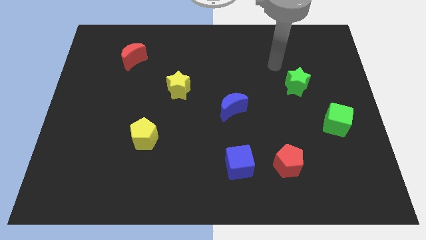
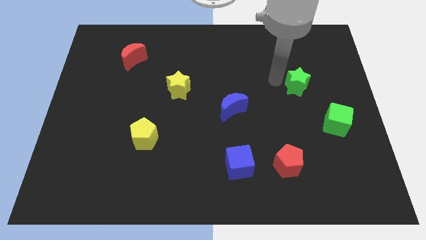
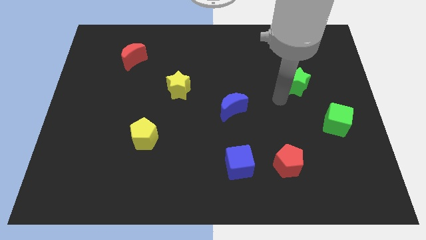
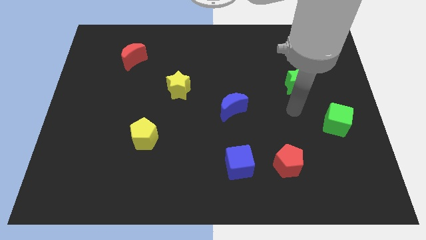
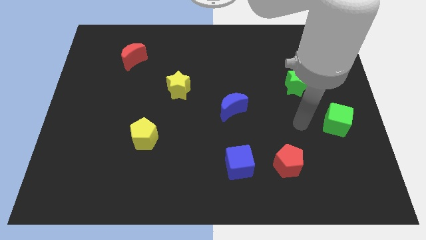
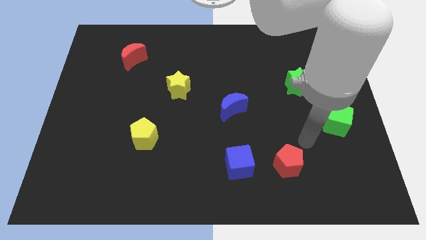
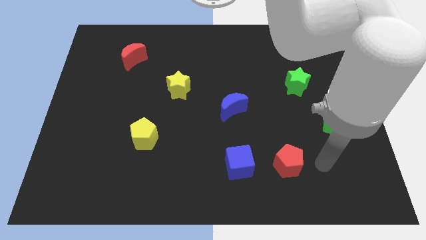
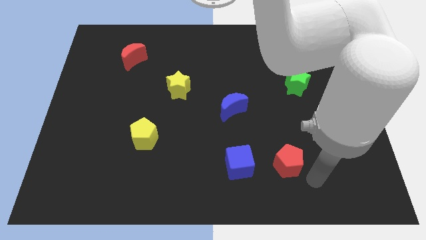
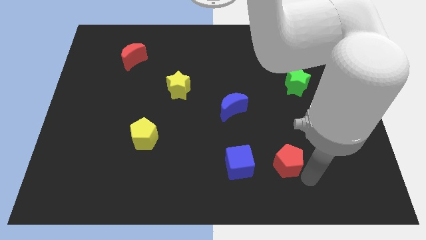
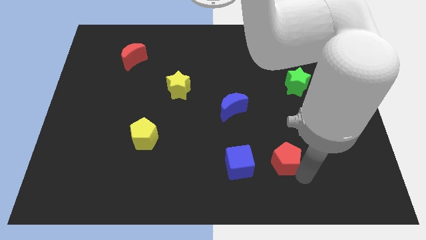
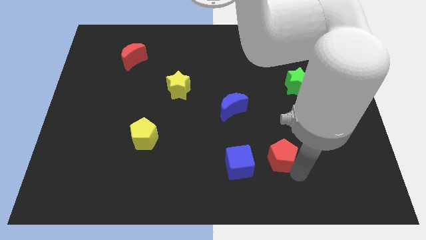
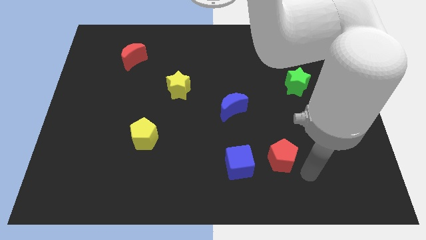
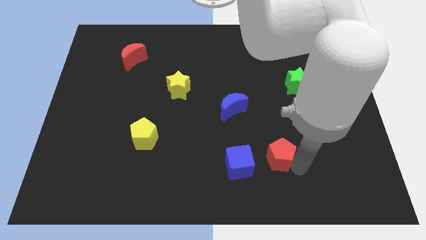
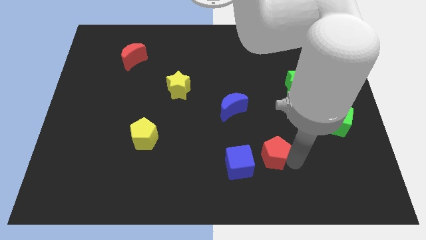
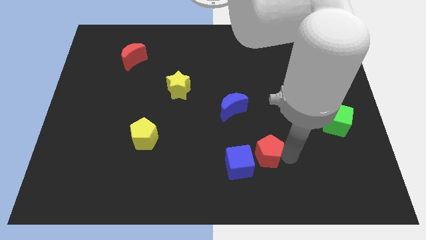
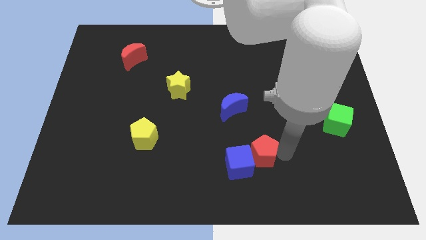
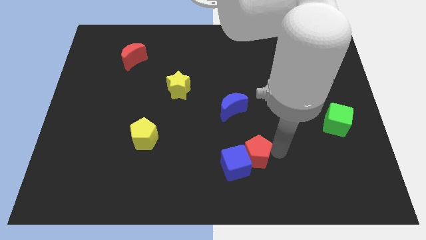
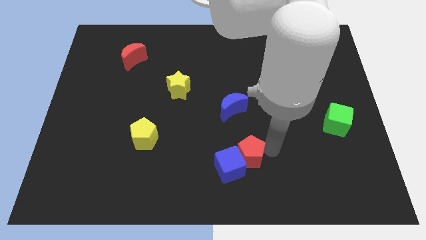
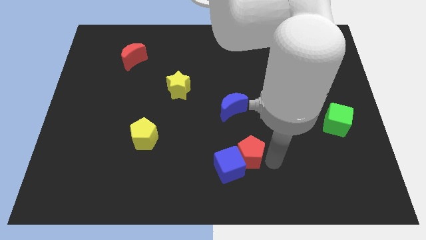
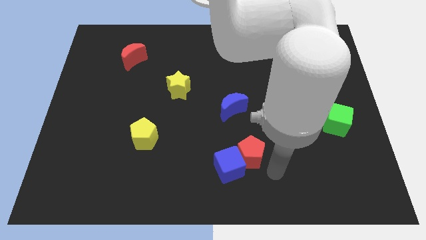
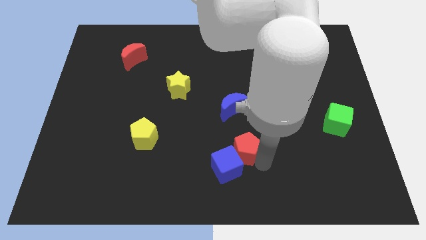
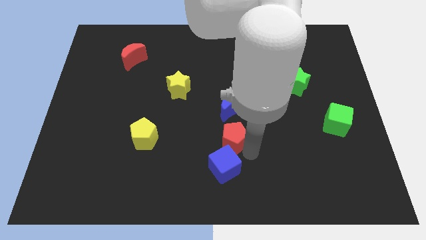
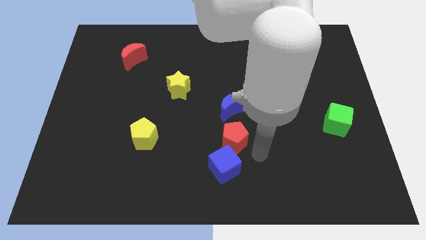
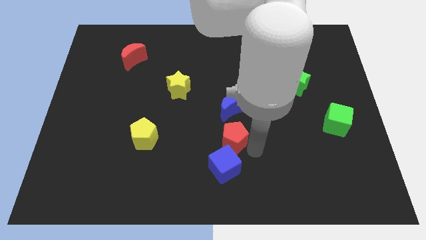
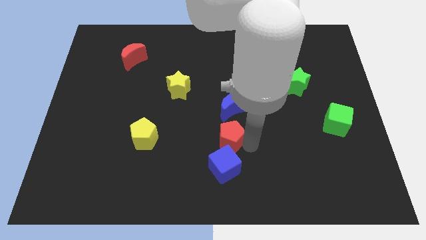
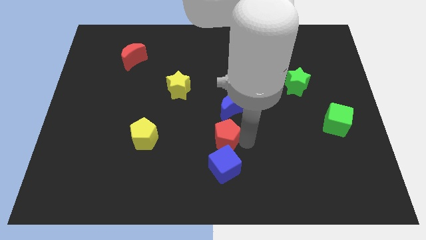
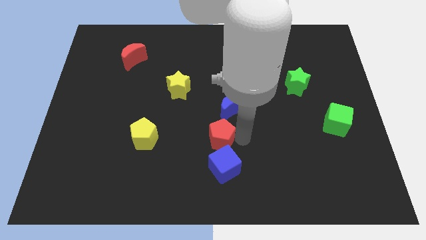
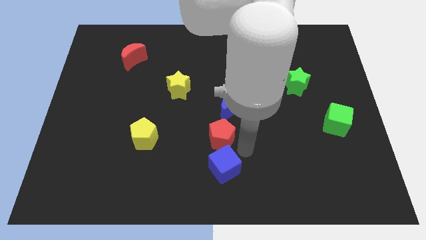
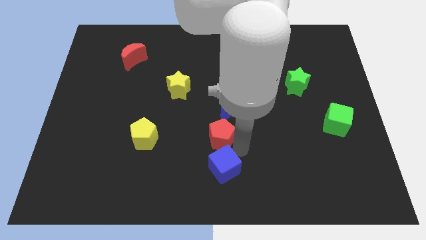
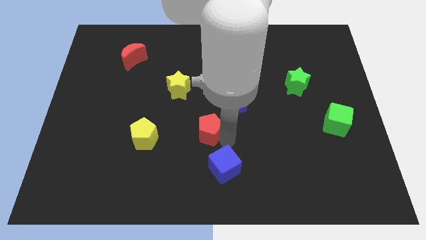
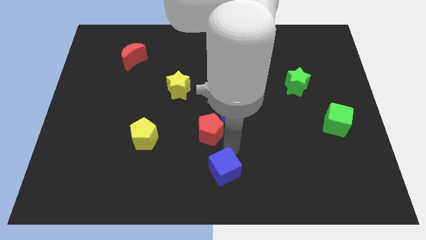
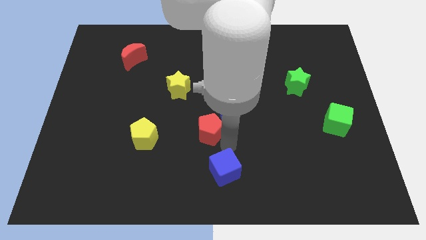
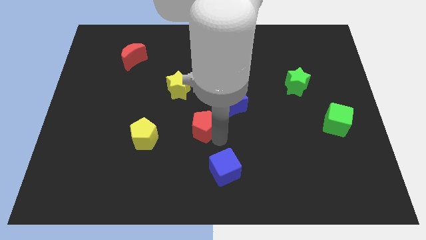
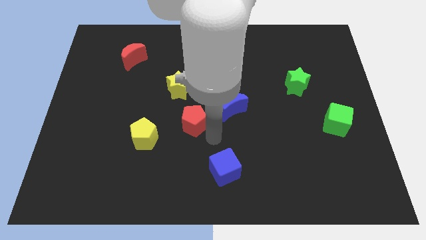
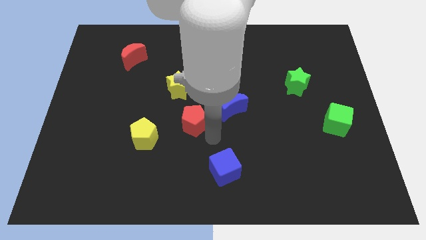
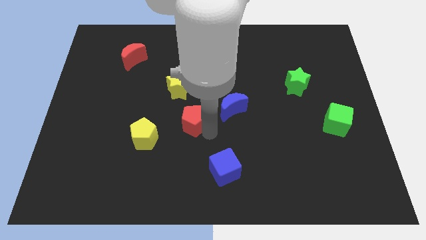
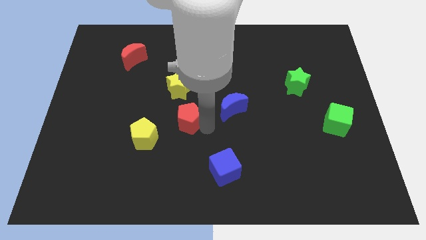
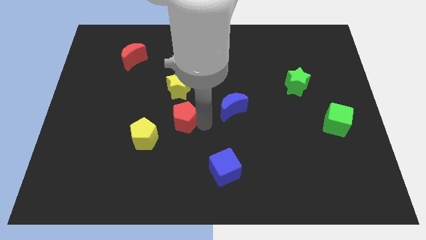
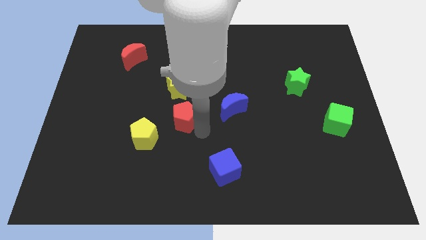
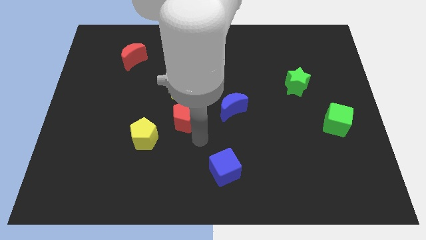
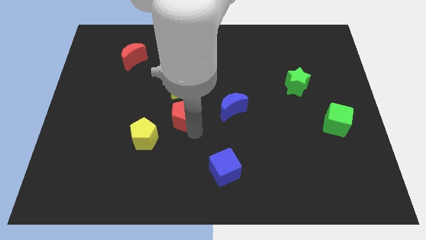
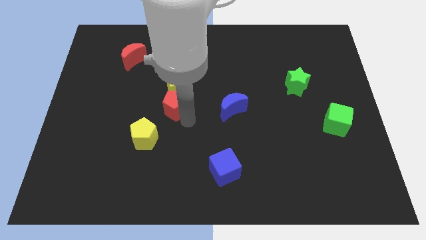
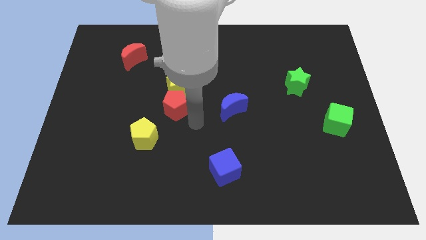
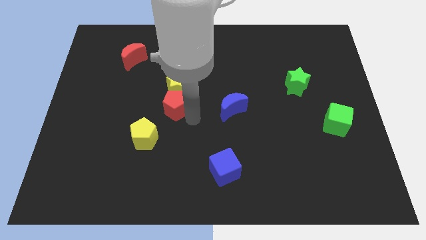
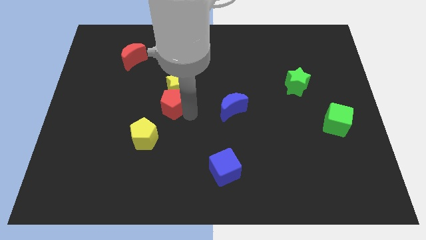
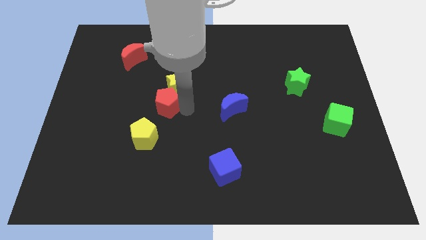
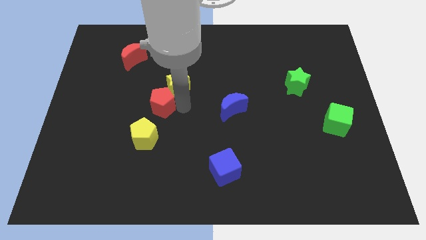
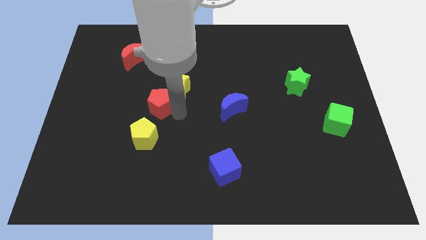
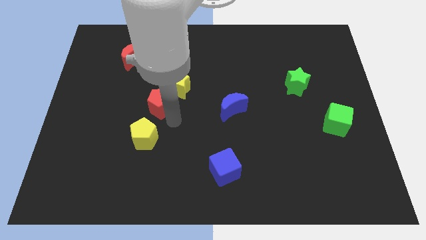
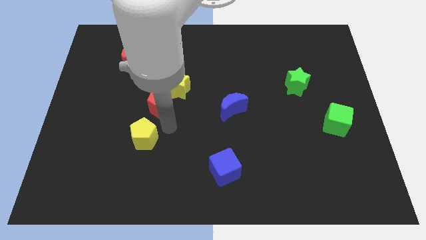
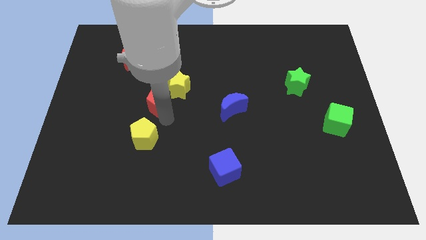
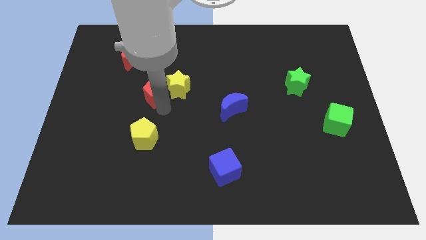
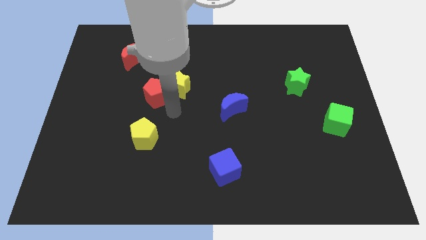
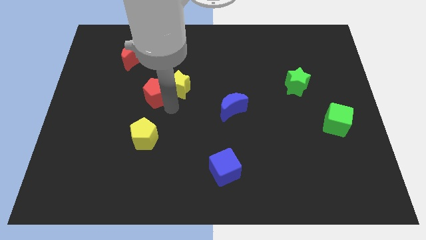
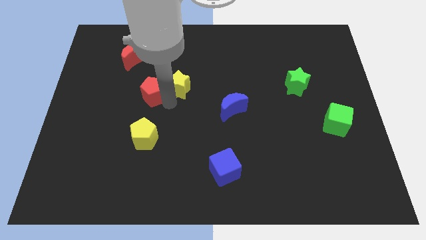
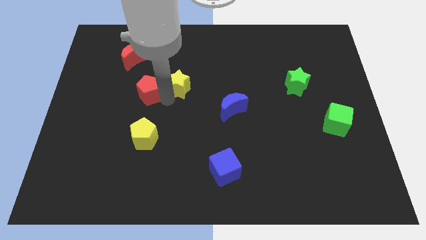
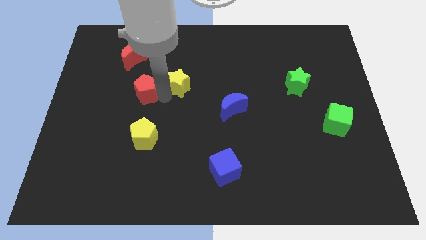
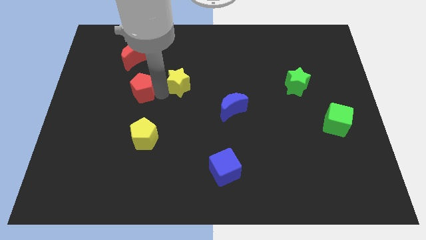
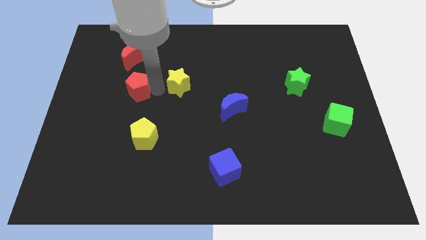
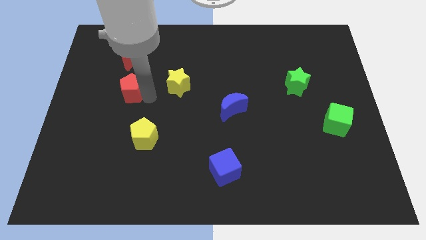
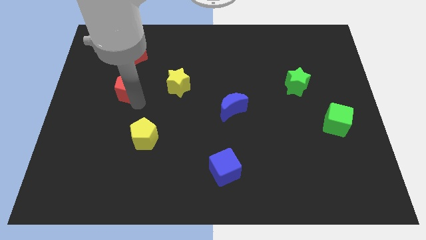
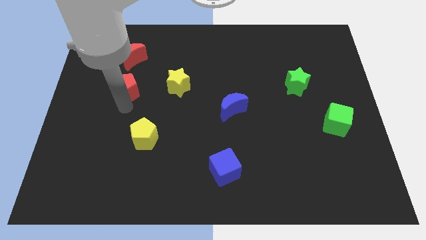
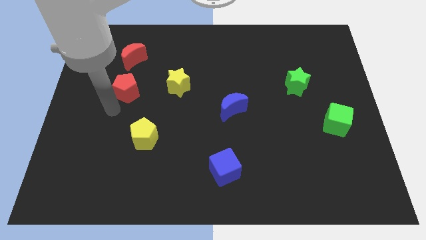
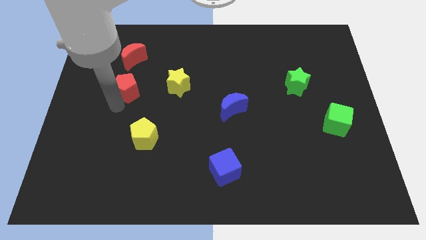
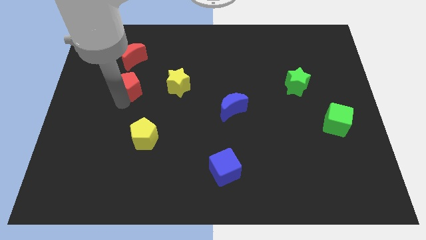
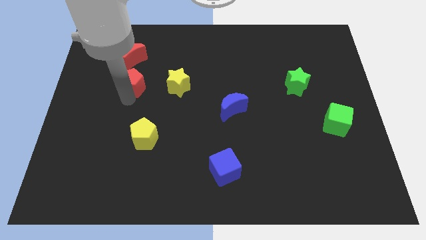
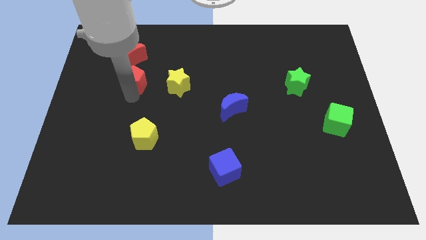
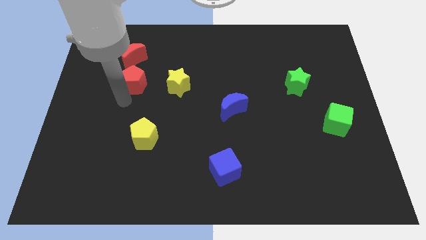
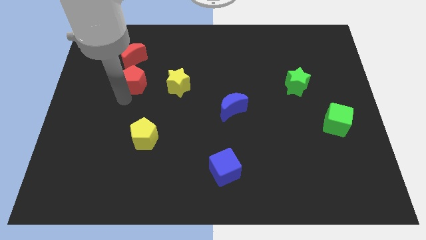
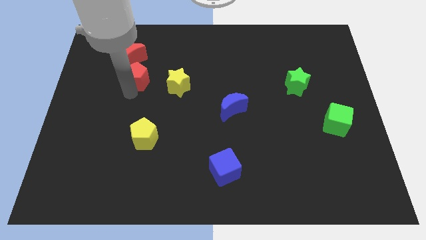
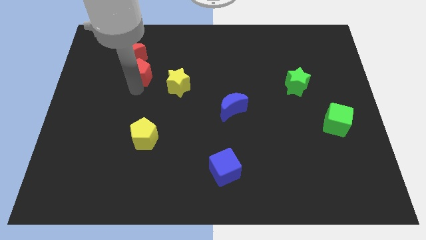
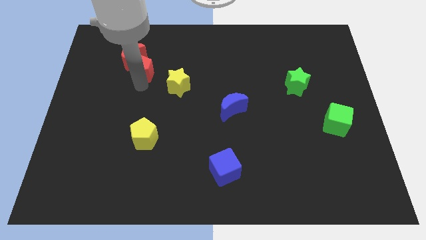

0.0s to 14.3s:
move the red pentagon close to the red moon
